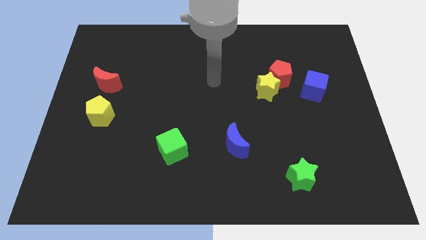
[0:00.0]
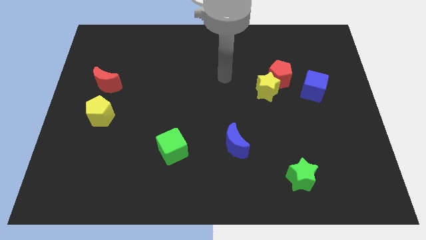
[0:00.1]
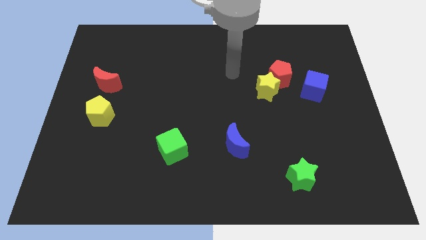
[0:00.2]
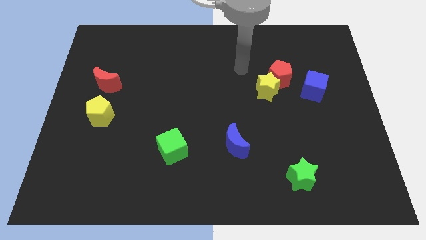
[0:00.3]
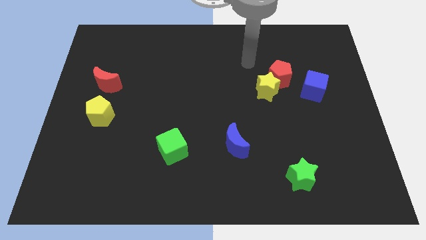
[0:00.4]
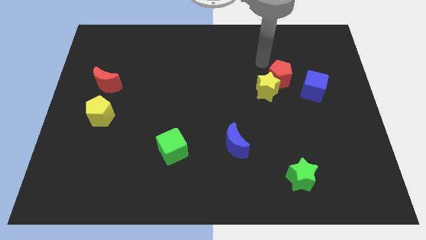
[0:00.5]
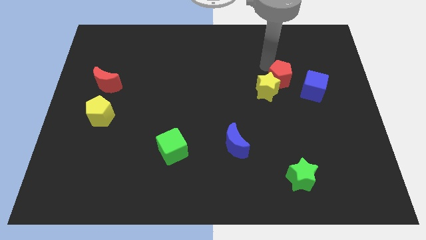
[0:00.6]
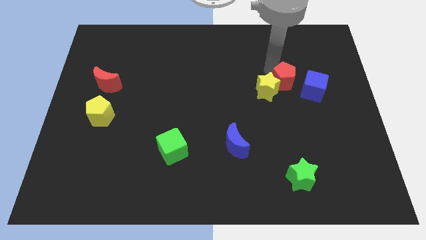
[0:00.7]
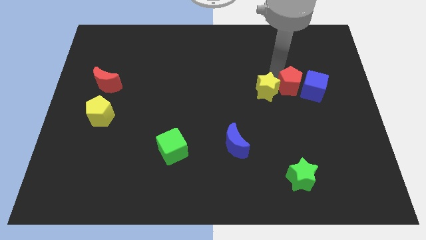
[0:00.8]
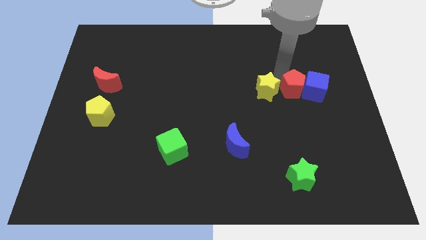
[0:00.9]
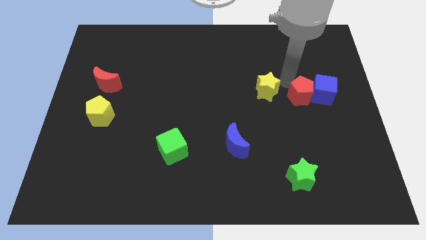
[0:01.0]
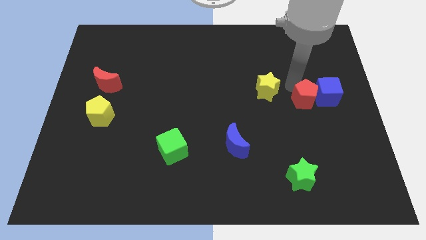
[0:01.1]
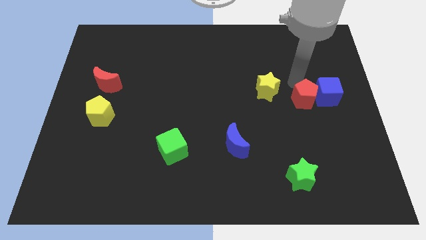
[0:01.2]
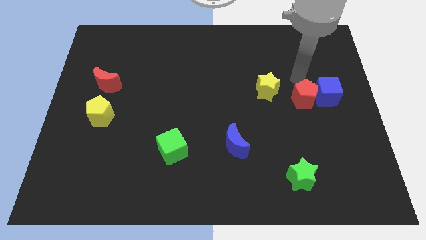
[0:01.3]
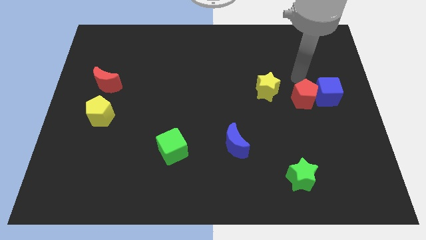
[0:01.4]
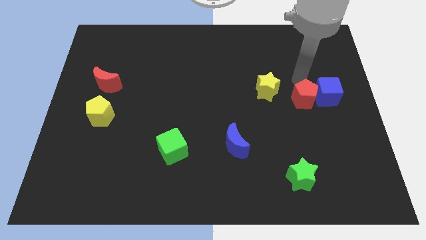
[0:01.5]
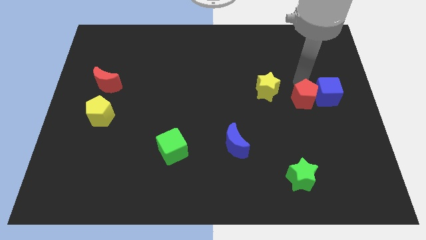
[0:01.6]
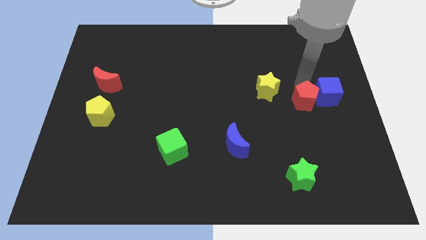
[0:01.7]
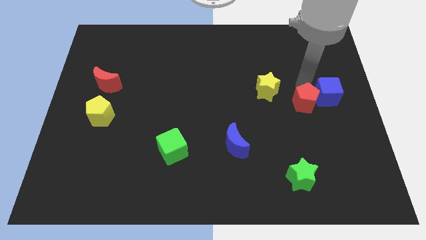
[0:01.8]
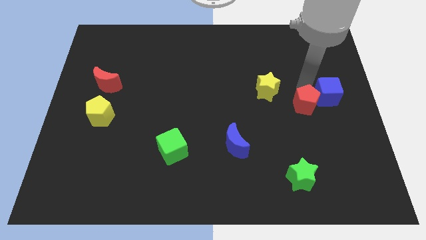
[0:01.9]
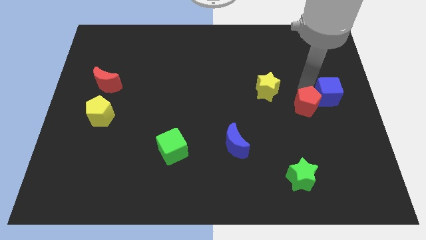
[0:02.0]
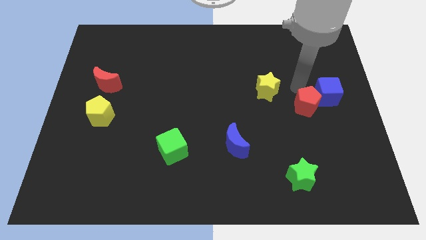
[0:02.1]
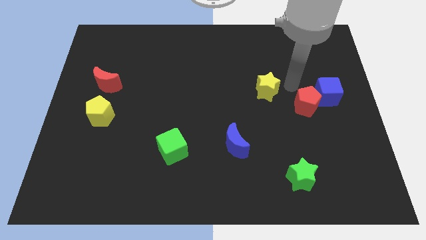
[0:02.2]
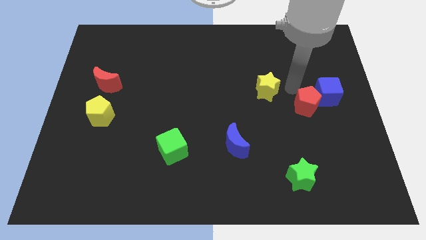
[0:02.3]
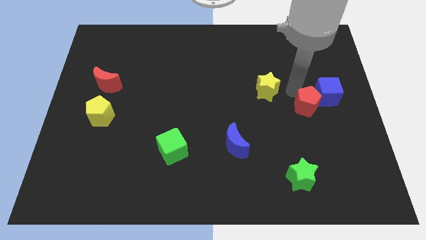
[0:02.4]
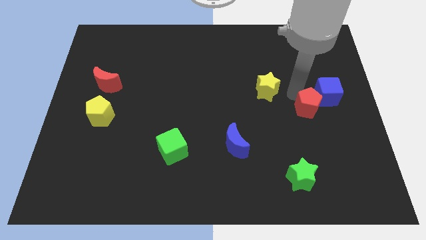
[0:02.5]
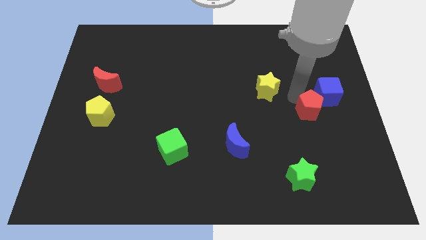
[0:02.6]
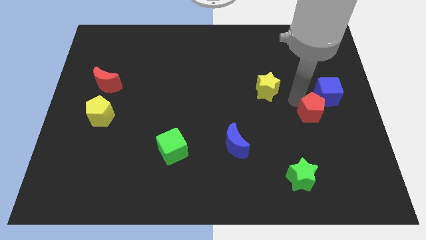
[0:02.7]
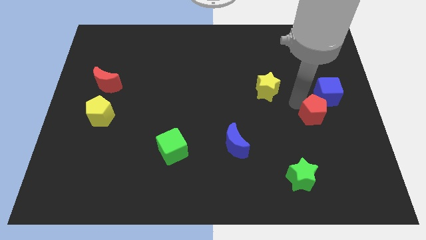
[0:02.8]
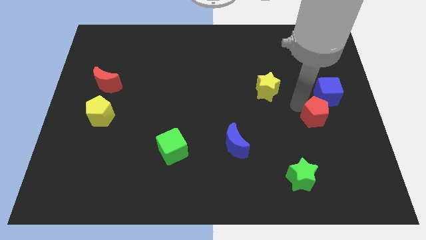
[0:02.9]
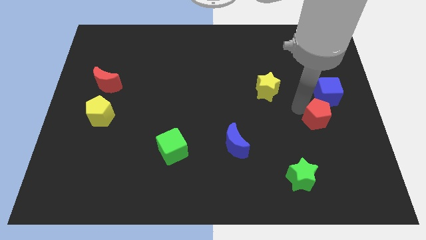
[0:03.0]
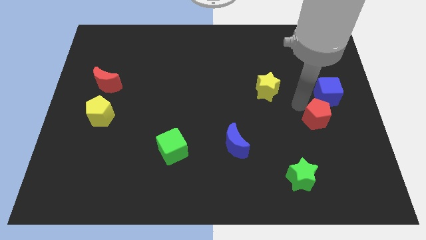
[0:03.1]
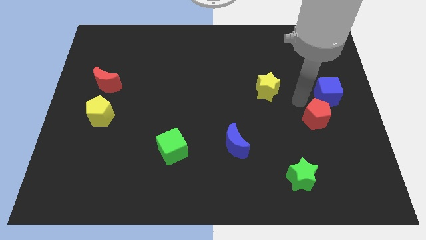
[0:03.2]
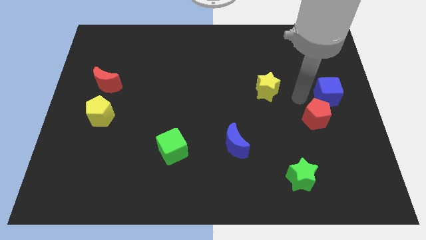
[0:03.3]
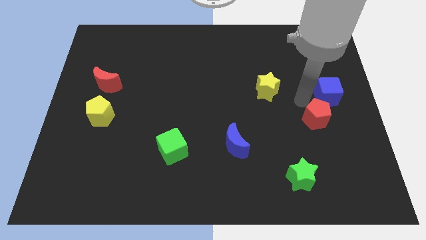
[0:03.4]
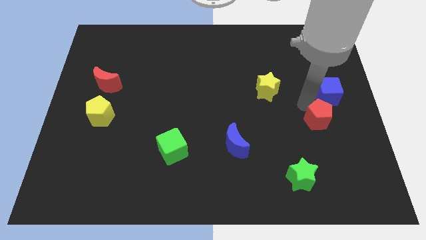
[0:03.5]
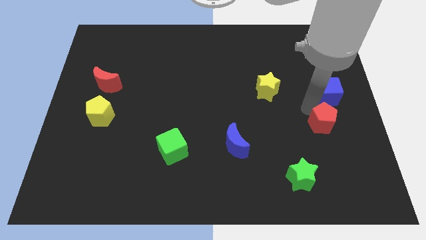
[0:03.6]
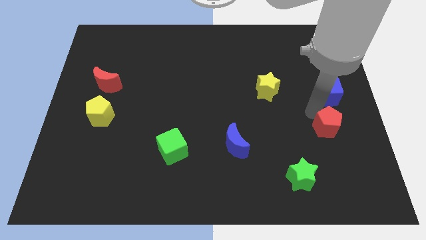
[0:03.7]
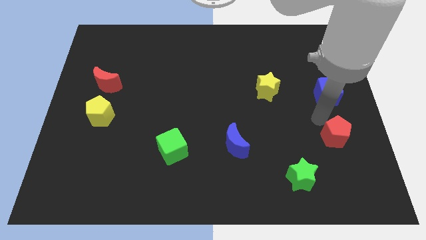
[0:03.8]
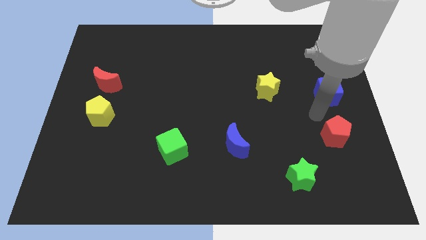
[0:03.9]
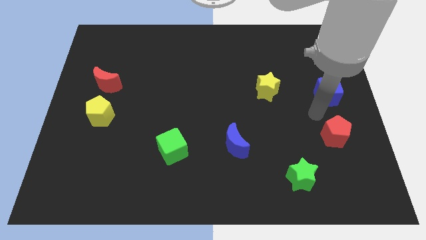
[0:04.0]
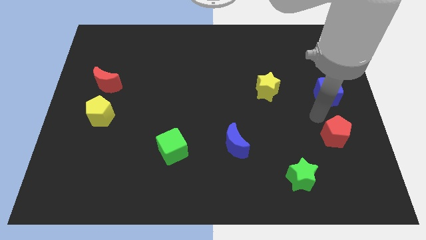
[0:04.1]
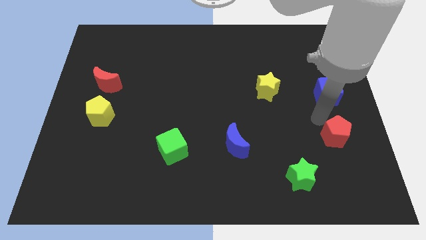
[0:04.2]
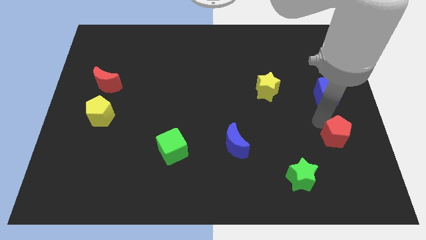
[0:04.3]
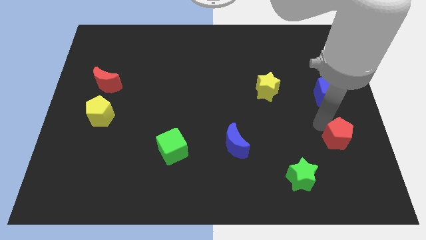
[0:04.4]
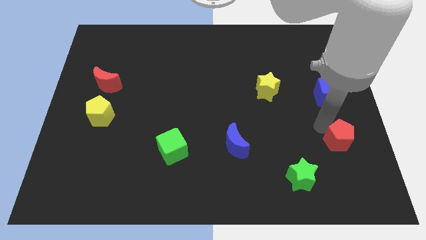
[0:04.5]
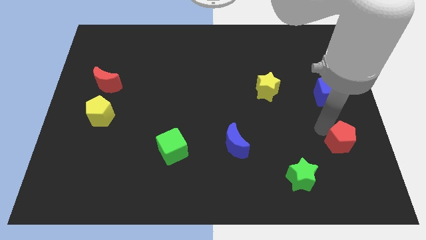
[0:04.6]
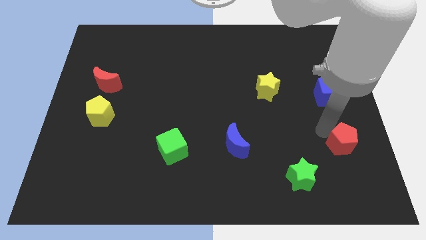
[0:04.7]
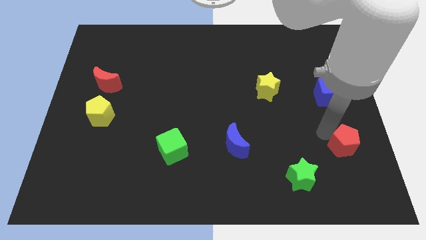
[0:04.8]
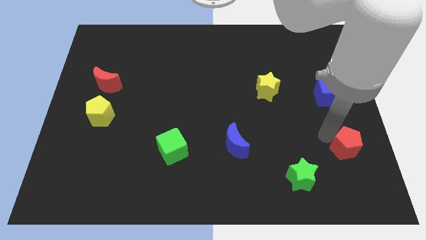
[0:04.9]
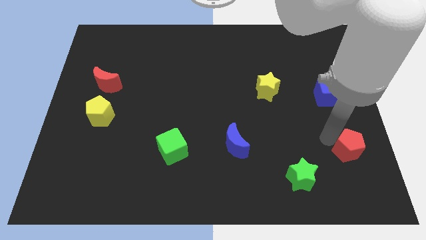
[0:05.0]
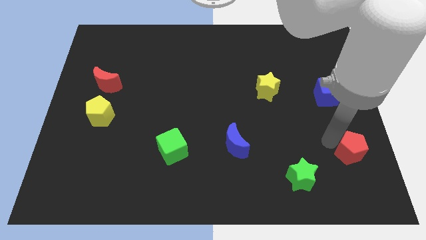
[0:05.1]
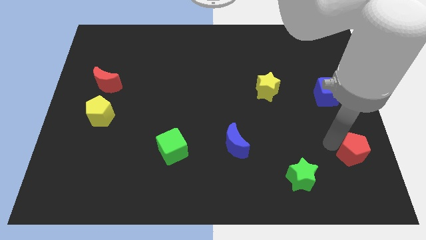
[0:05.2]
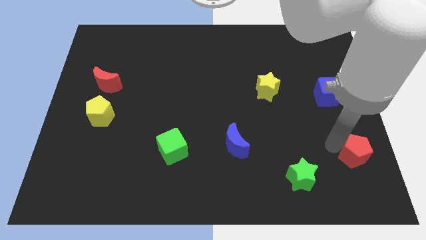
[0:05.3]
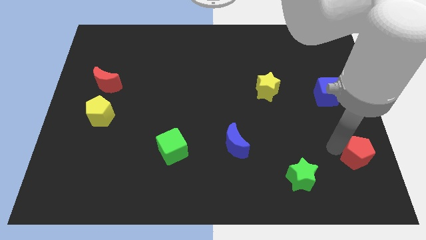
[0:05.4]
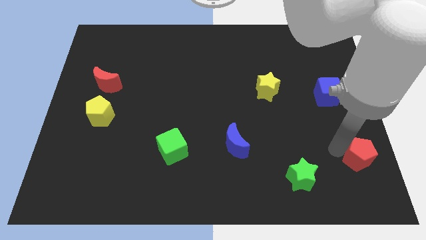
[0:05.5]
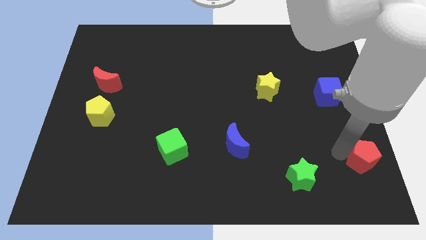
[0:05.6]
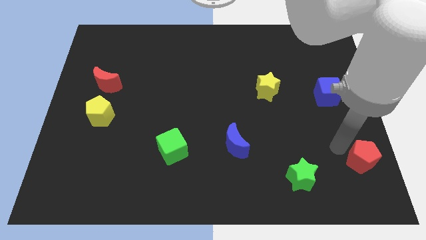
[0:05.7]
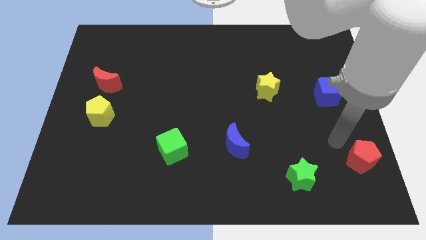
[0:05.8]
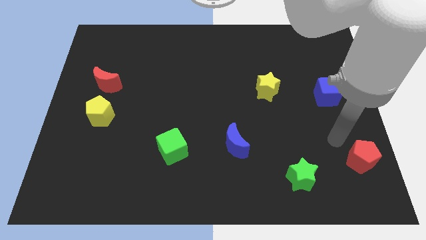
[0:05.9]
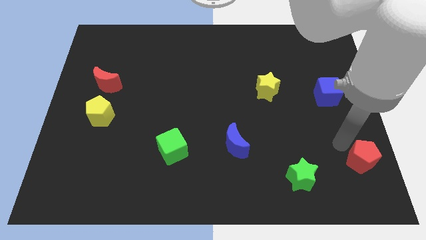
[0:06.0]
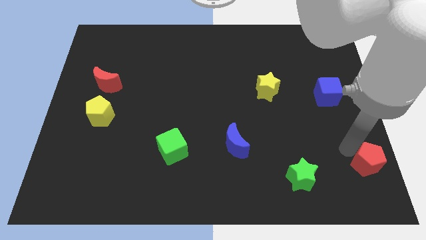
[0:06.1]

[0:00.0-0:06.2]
put the red pentagon to the bottom right

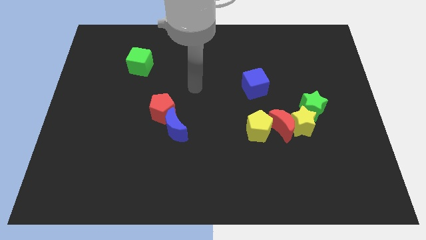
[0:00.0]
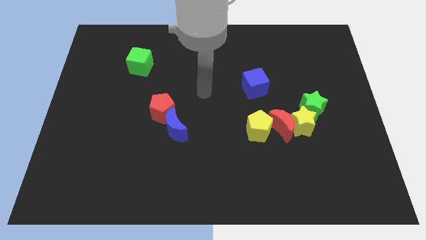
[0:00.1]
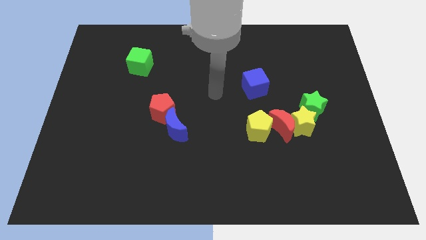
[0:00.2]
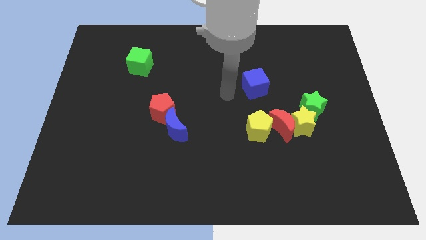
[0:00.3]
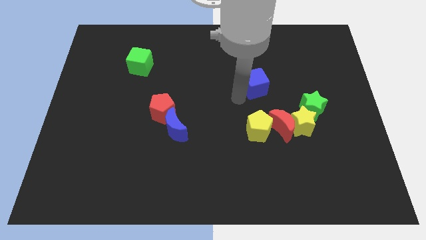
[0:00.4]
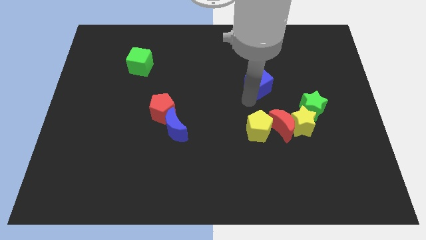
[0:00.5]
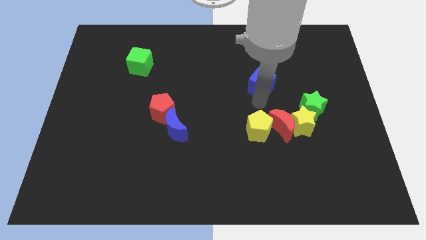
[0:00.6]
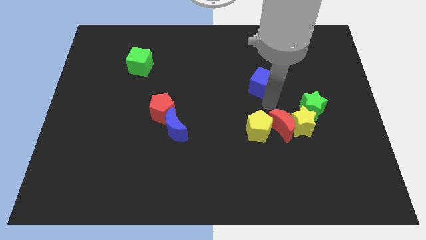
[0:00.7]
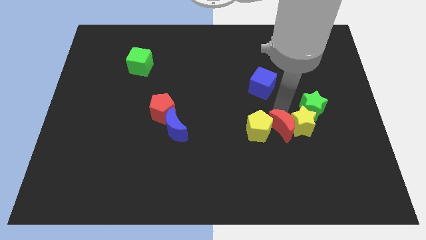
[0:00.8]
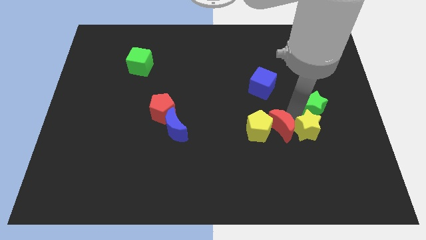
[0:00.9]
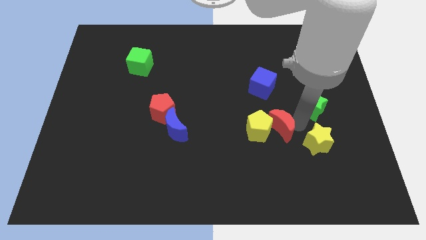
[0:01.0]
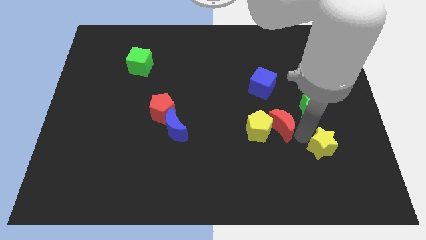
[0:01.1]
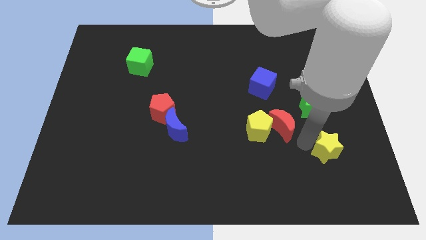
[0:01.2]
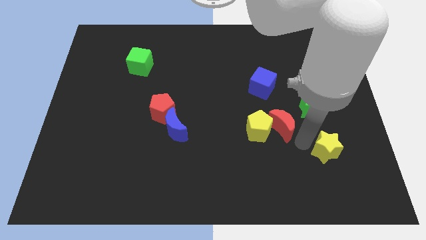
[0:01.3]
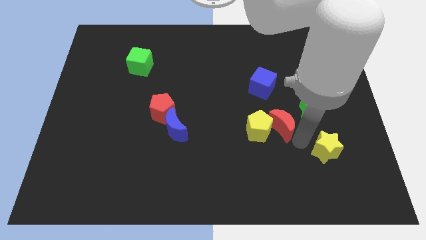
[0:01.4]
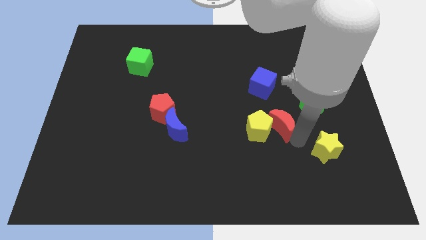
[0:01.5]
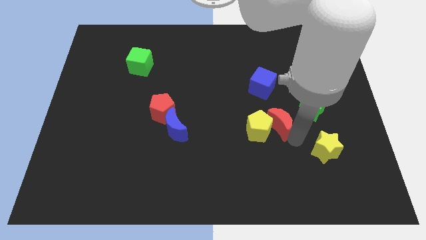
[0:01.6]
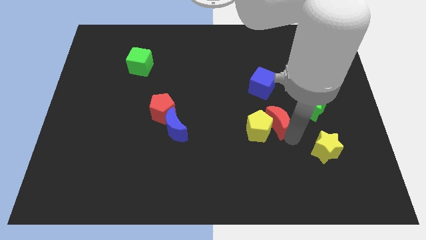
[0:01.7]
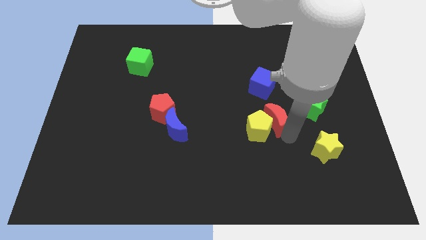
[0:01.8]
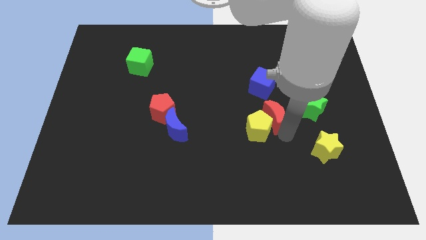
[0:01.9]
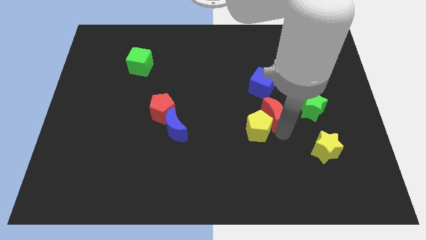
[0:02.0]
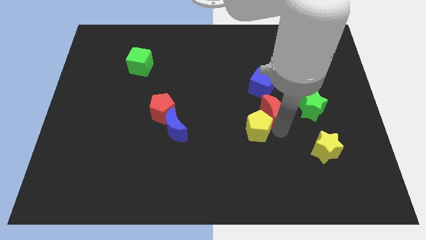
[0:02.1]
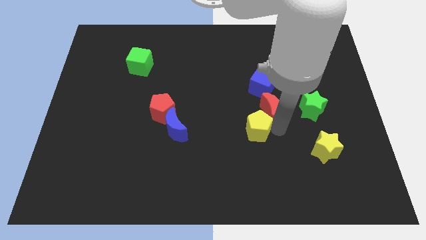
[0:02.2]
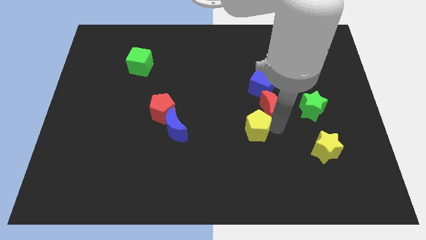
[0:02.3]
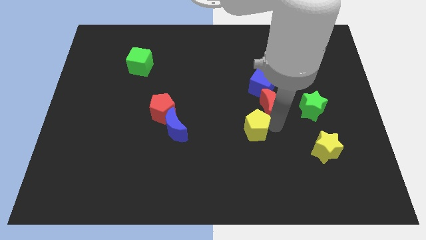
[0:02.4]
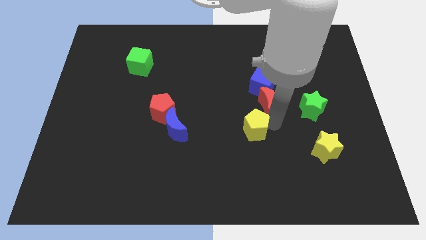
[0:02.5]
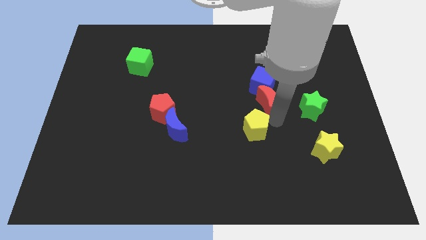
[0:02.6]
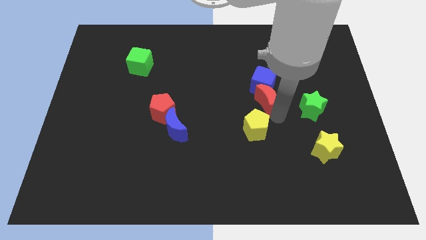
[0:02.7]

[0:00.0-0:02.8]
push the red moon to the center of the board
